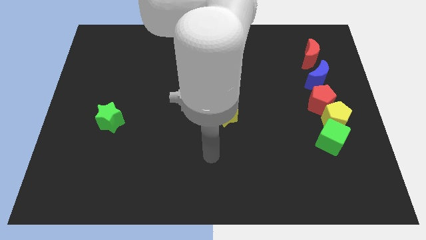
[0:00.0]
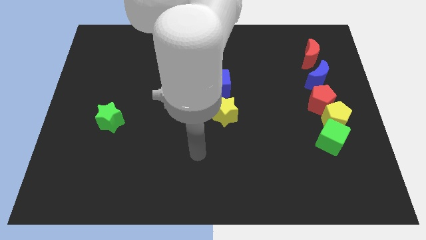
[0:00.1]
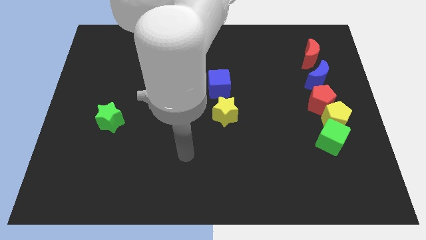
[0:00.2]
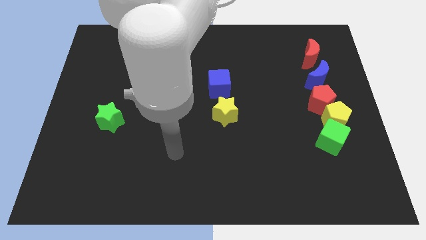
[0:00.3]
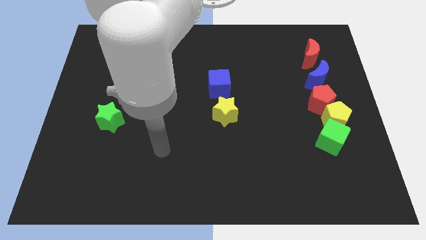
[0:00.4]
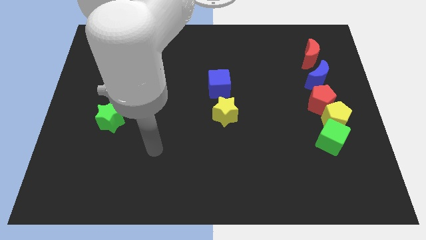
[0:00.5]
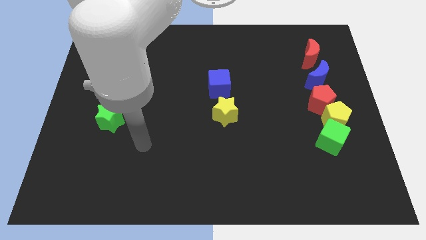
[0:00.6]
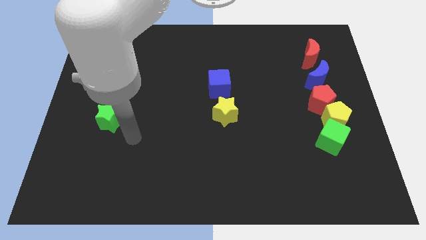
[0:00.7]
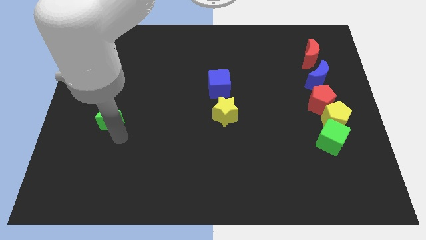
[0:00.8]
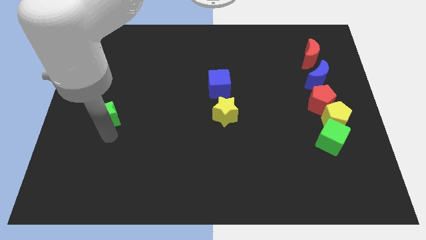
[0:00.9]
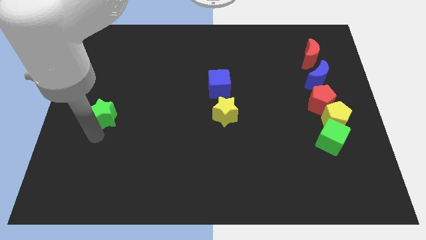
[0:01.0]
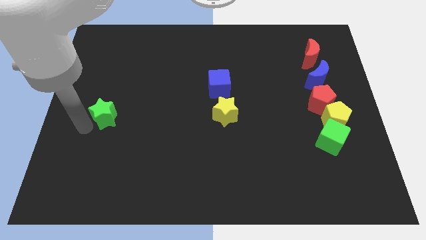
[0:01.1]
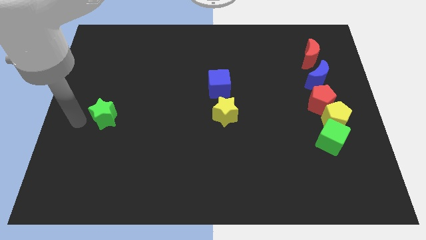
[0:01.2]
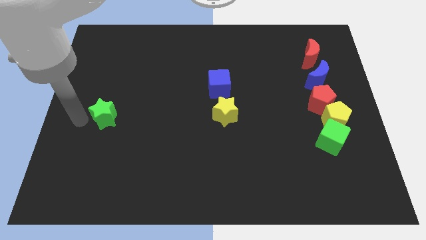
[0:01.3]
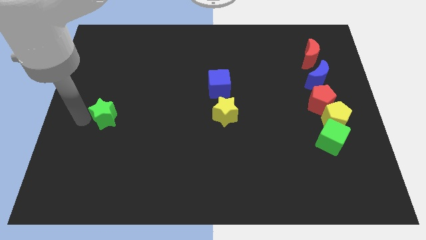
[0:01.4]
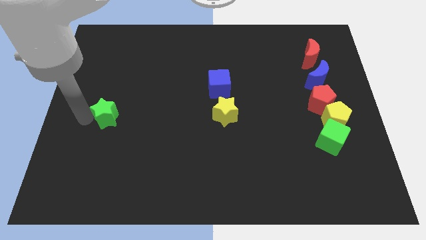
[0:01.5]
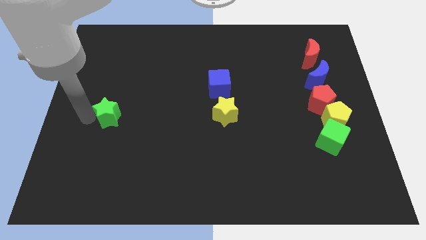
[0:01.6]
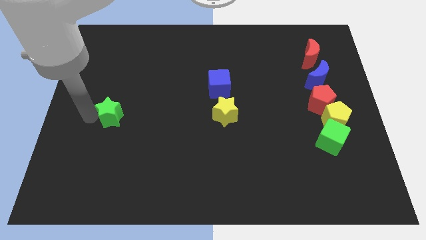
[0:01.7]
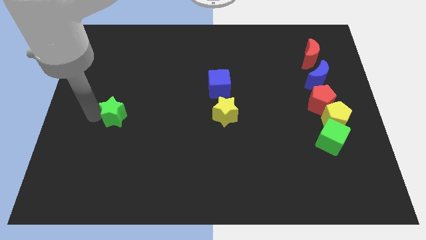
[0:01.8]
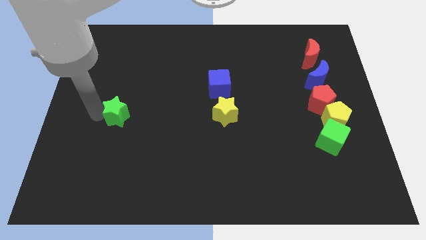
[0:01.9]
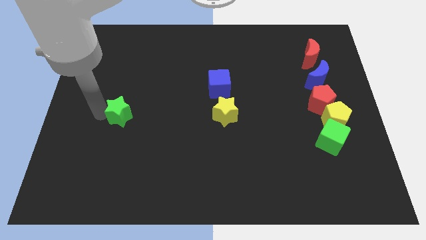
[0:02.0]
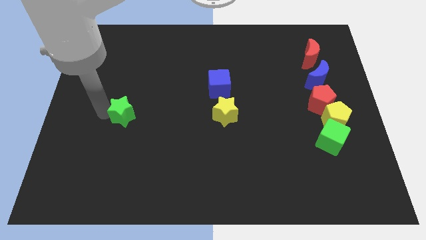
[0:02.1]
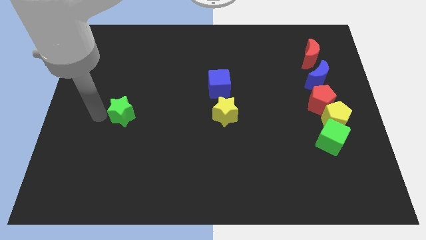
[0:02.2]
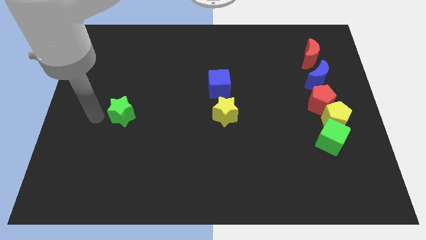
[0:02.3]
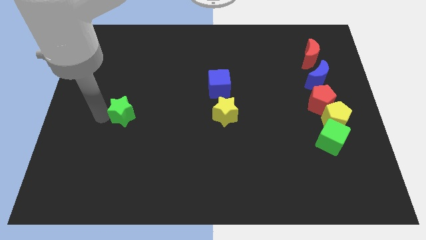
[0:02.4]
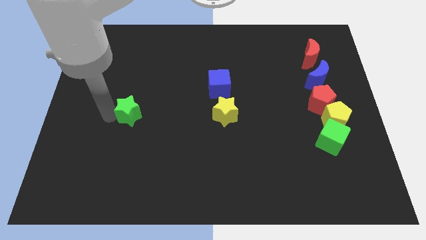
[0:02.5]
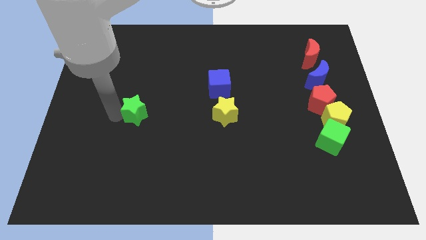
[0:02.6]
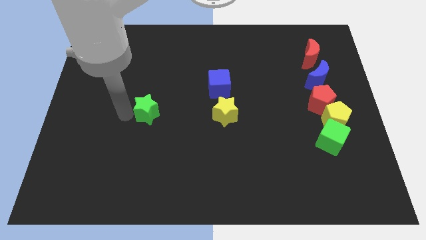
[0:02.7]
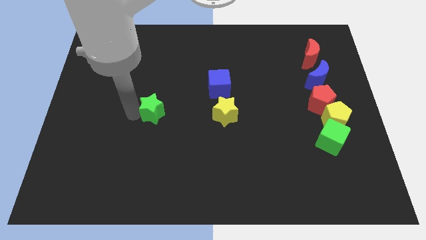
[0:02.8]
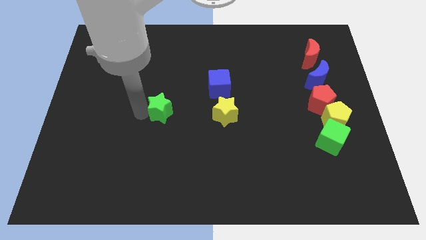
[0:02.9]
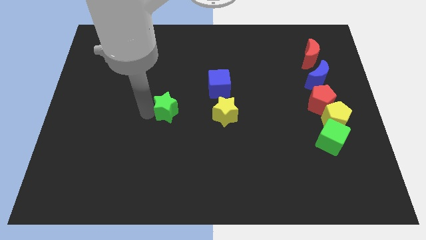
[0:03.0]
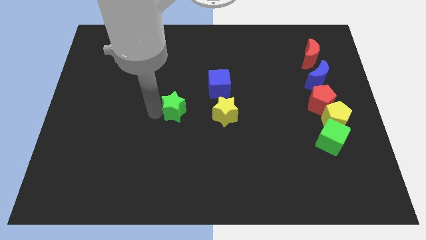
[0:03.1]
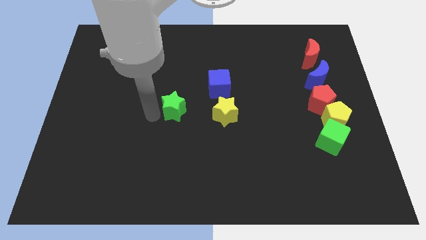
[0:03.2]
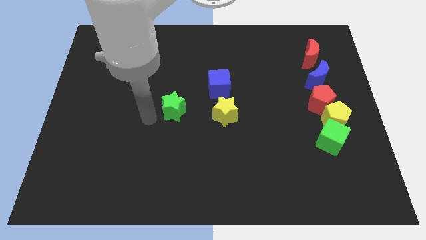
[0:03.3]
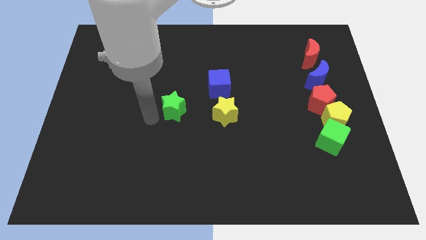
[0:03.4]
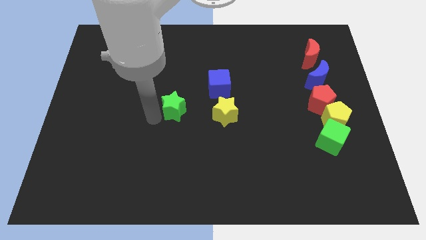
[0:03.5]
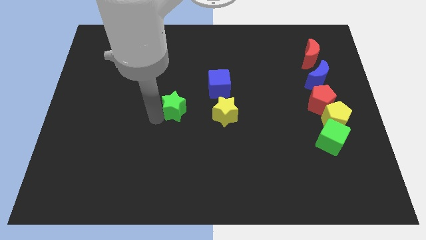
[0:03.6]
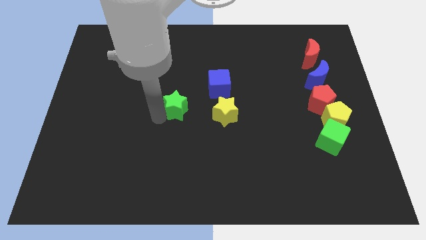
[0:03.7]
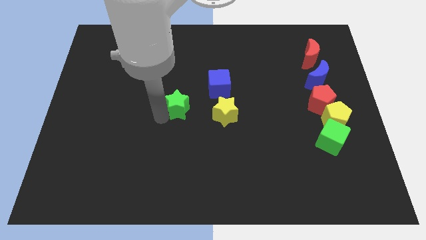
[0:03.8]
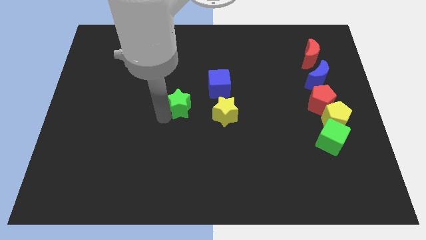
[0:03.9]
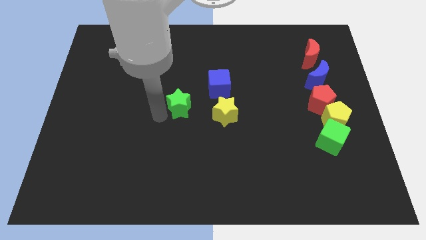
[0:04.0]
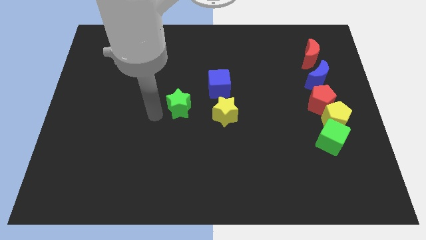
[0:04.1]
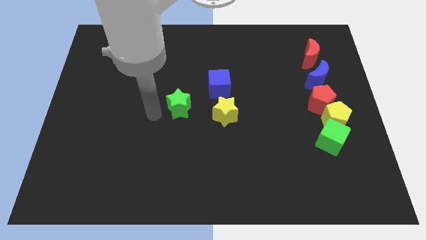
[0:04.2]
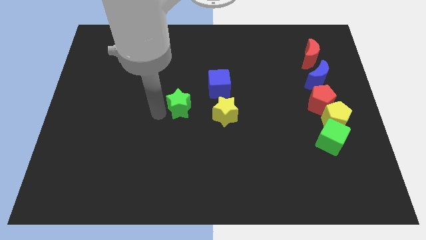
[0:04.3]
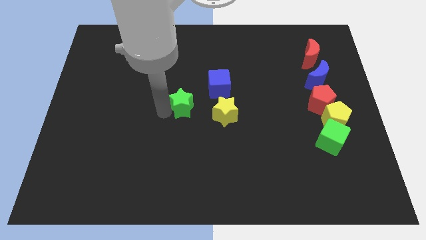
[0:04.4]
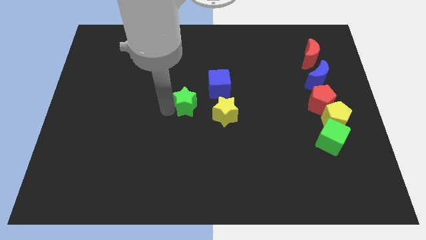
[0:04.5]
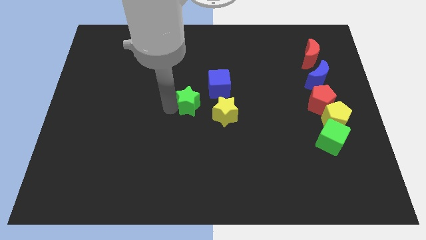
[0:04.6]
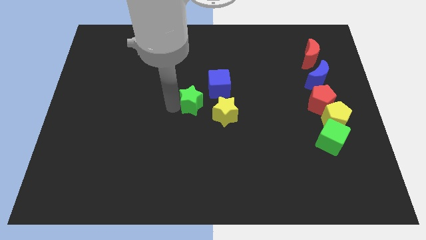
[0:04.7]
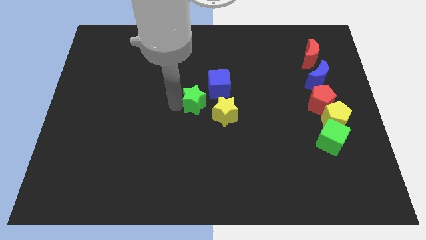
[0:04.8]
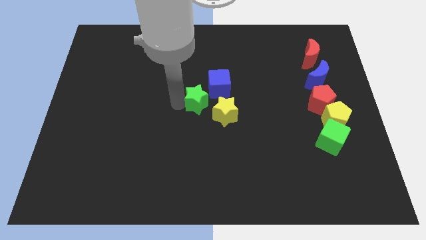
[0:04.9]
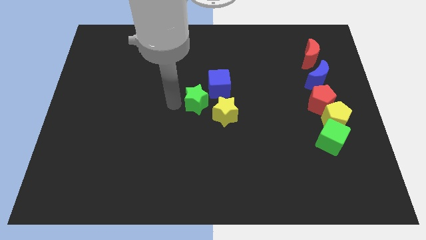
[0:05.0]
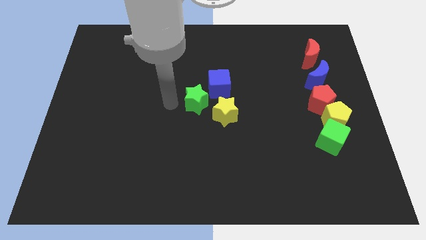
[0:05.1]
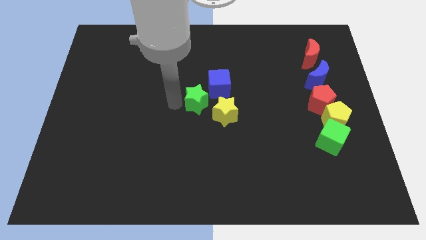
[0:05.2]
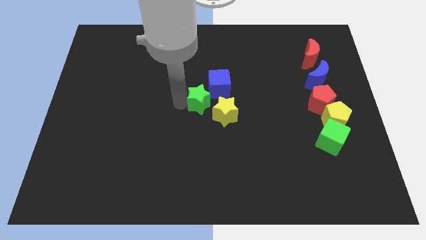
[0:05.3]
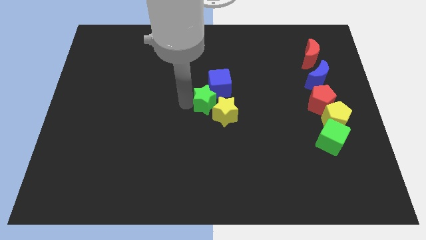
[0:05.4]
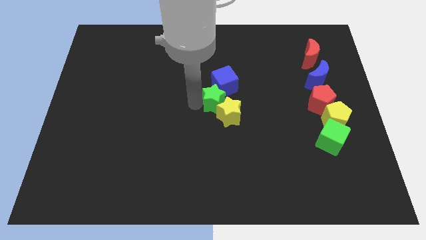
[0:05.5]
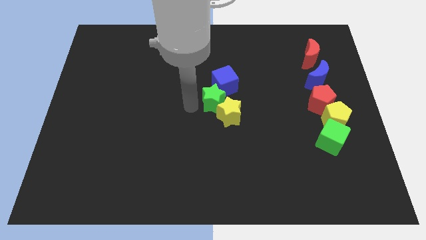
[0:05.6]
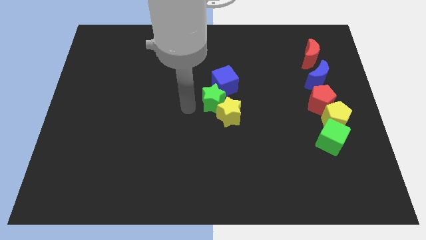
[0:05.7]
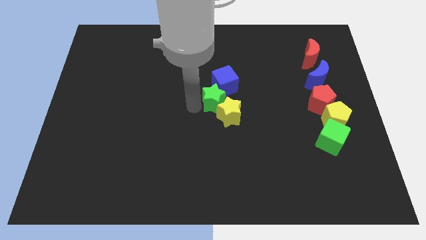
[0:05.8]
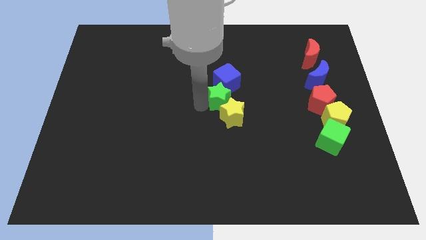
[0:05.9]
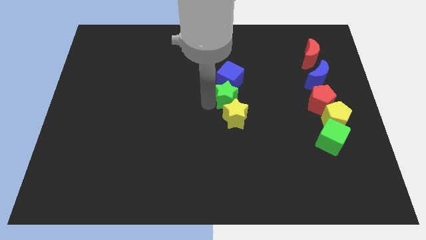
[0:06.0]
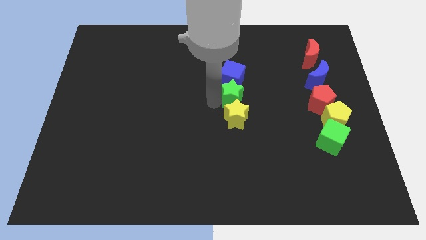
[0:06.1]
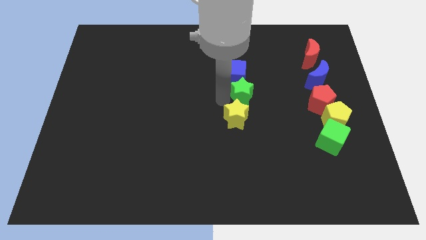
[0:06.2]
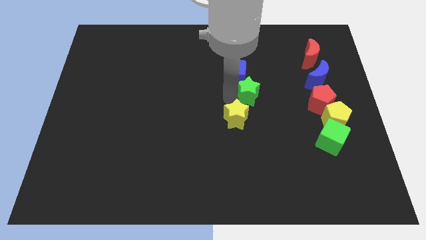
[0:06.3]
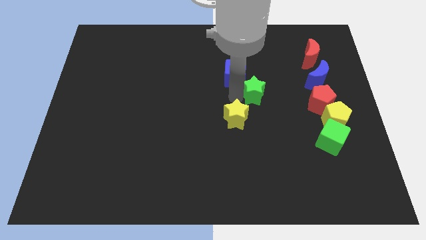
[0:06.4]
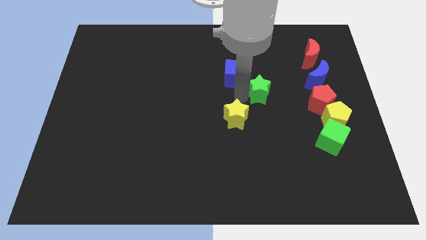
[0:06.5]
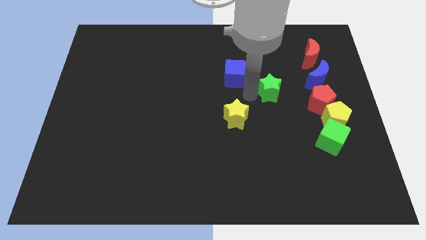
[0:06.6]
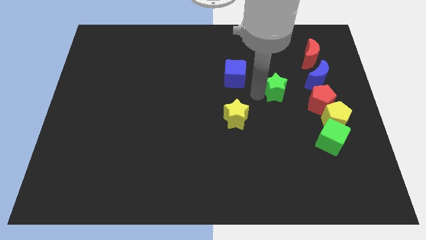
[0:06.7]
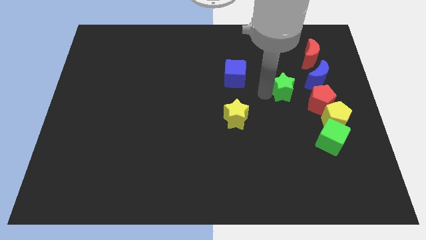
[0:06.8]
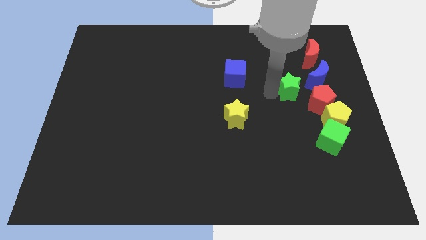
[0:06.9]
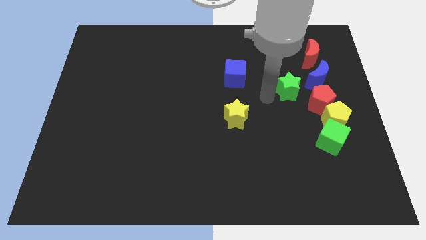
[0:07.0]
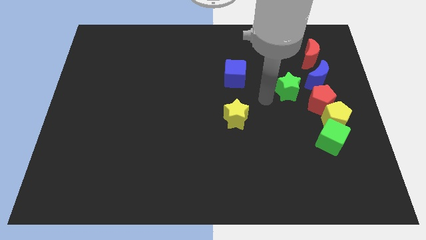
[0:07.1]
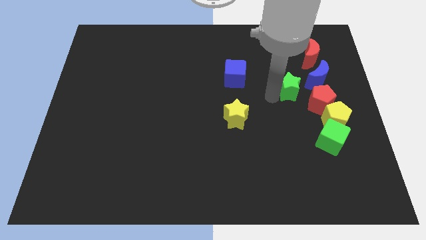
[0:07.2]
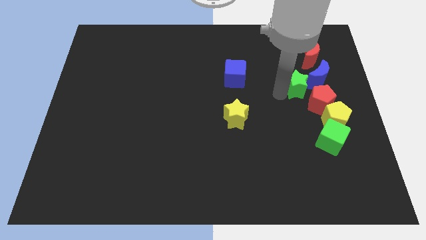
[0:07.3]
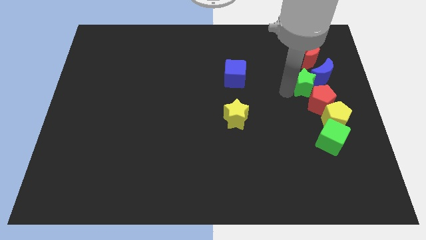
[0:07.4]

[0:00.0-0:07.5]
put the green star to the blue moon
